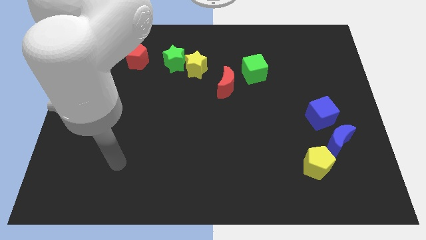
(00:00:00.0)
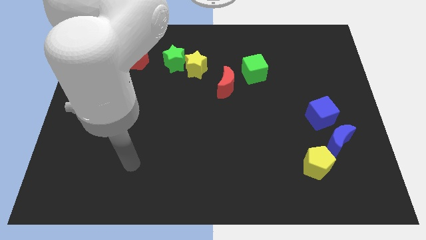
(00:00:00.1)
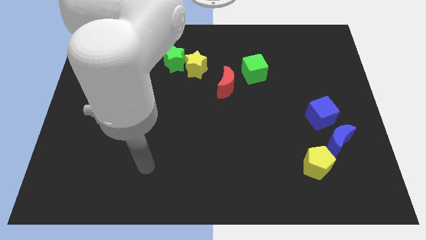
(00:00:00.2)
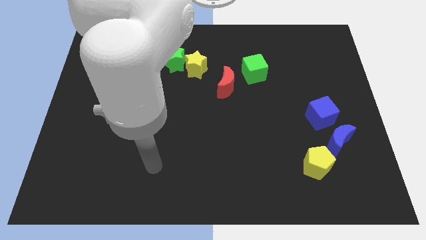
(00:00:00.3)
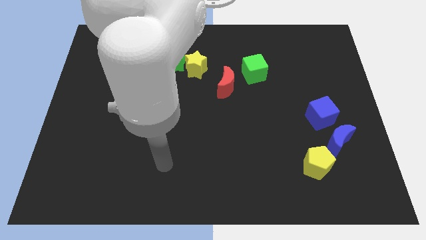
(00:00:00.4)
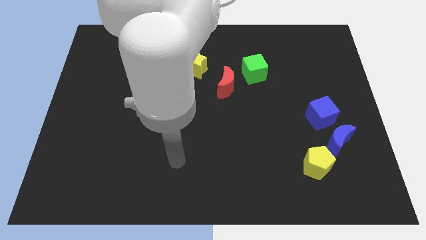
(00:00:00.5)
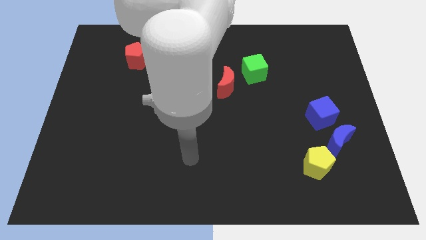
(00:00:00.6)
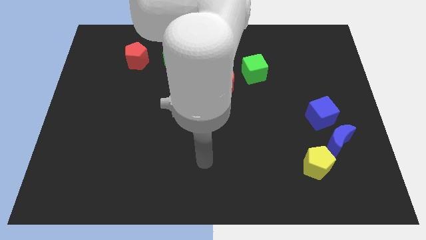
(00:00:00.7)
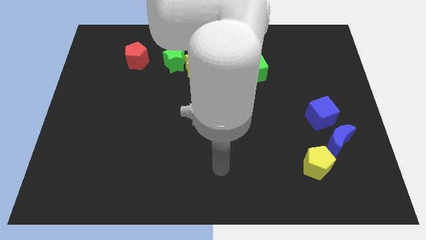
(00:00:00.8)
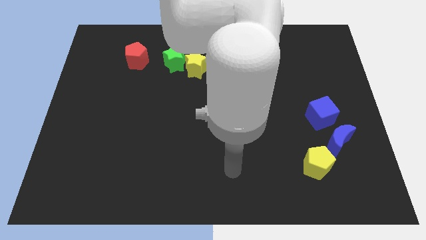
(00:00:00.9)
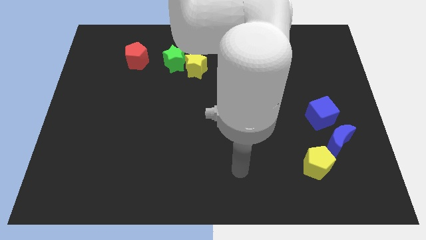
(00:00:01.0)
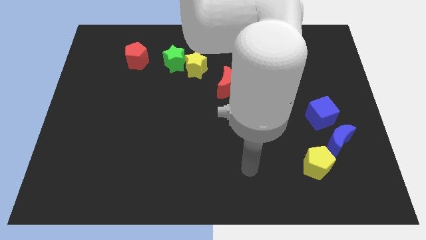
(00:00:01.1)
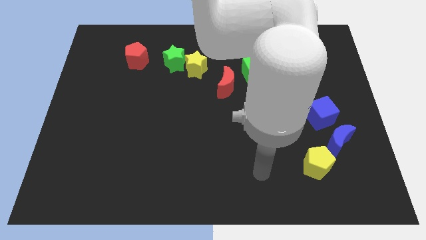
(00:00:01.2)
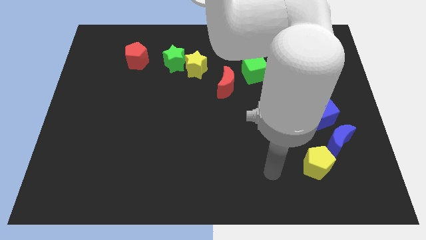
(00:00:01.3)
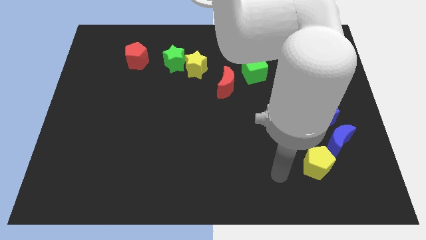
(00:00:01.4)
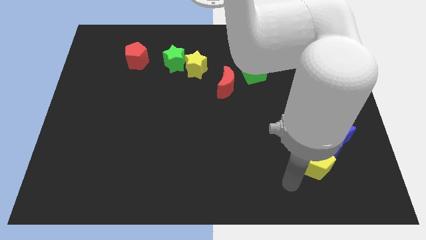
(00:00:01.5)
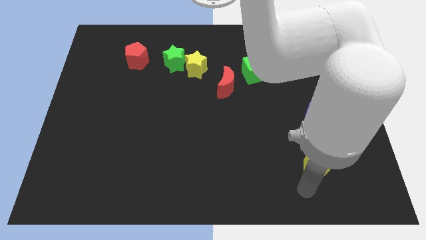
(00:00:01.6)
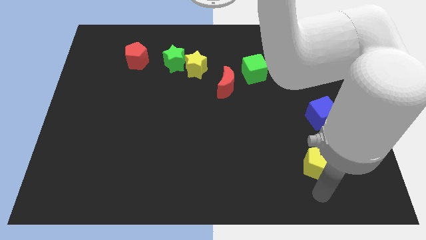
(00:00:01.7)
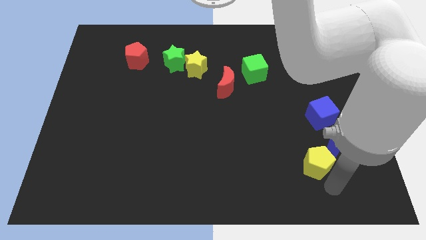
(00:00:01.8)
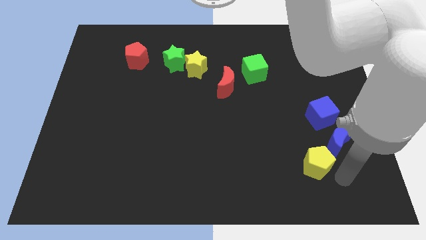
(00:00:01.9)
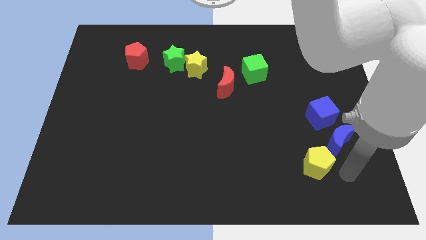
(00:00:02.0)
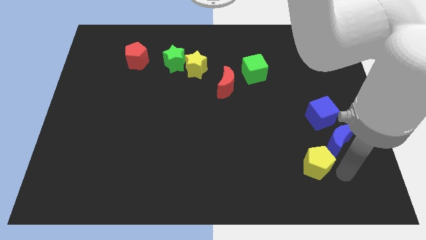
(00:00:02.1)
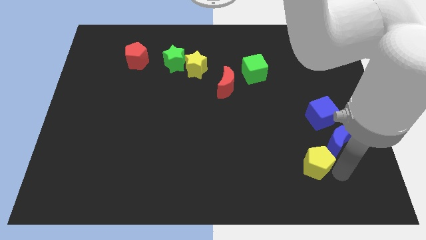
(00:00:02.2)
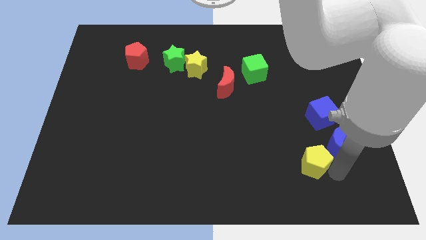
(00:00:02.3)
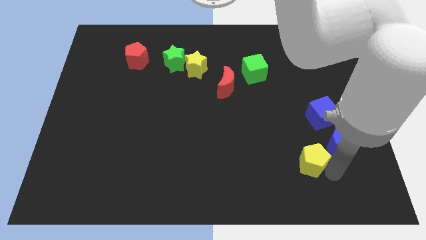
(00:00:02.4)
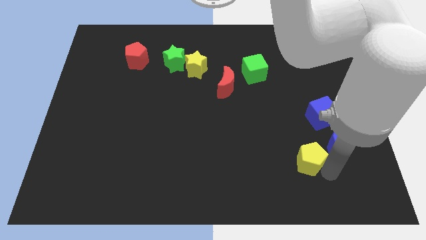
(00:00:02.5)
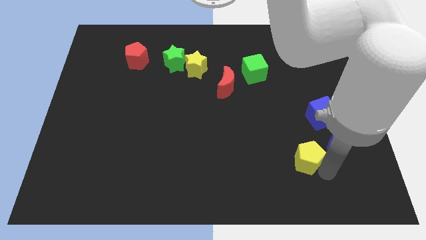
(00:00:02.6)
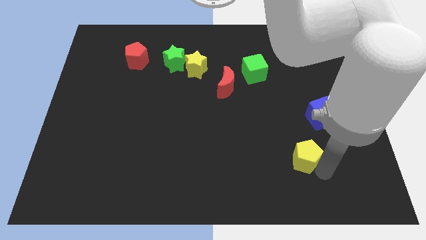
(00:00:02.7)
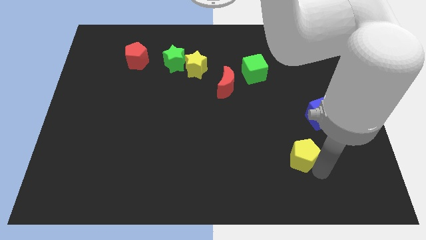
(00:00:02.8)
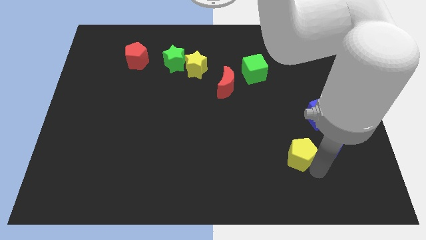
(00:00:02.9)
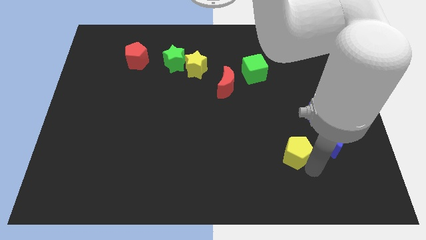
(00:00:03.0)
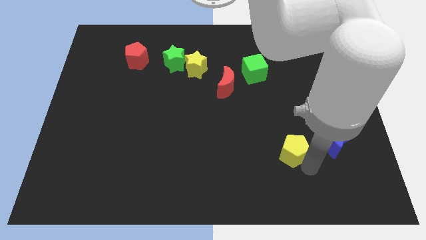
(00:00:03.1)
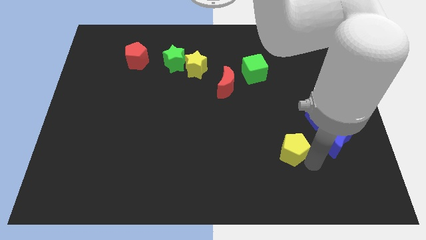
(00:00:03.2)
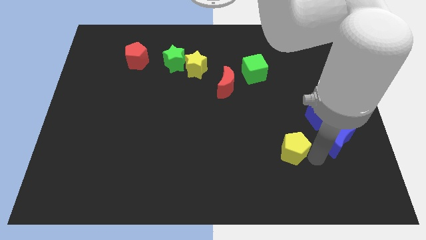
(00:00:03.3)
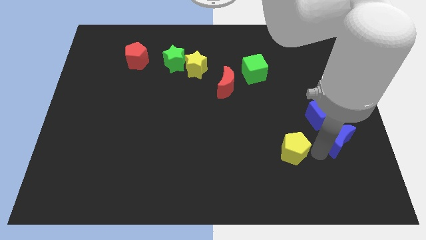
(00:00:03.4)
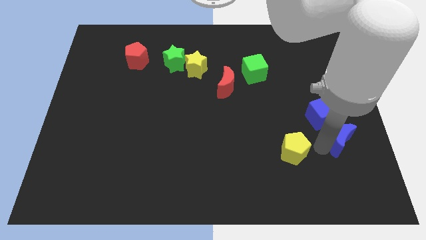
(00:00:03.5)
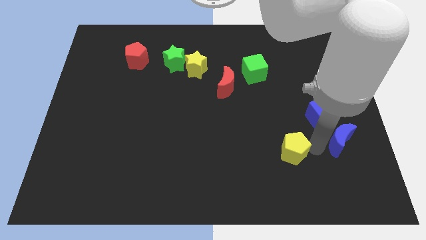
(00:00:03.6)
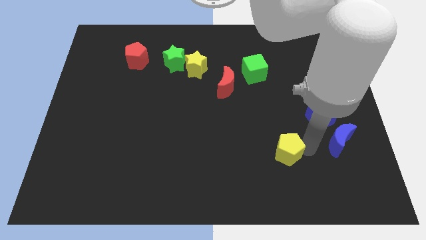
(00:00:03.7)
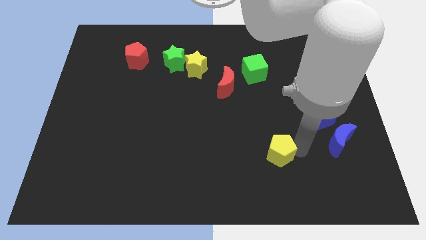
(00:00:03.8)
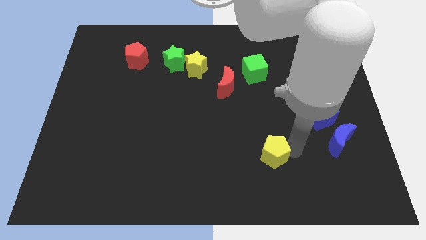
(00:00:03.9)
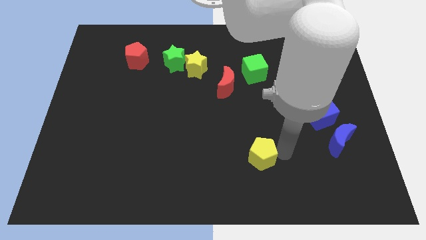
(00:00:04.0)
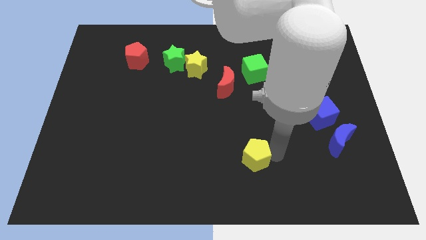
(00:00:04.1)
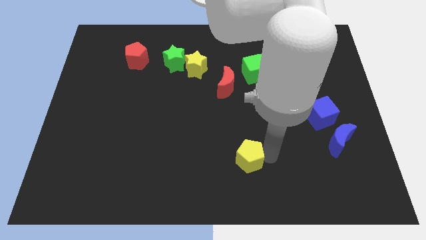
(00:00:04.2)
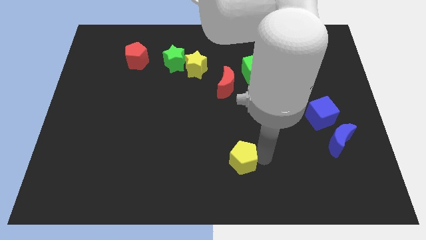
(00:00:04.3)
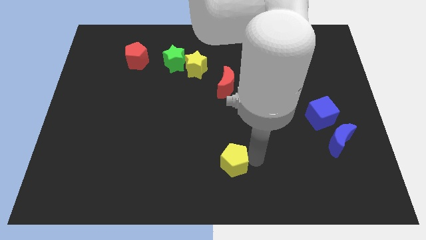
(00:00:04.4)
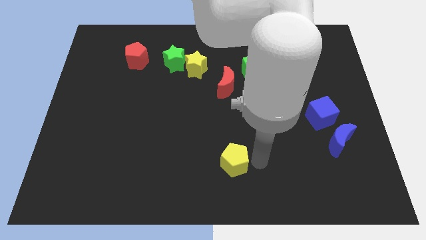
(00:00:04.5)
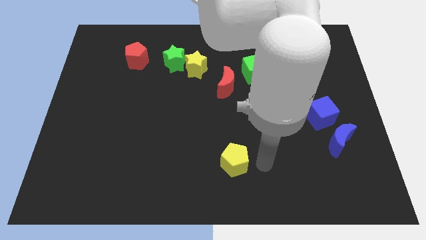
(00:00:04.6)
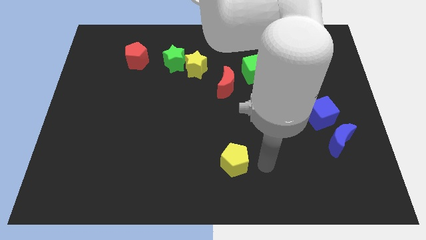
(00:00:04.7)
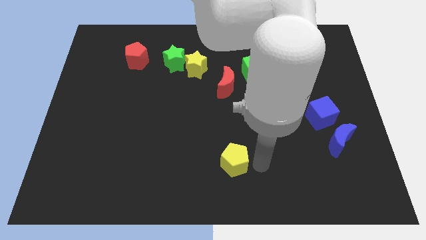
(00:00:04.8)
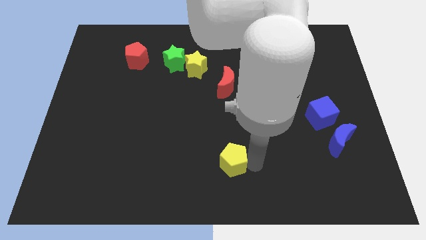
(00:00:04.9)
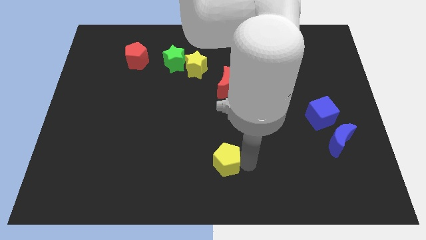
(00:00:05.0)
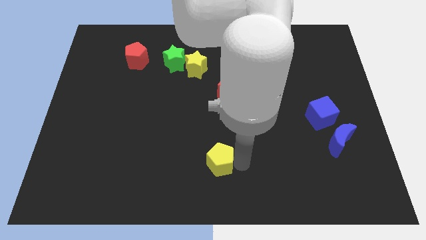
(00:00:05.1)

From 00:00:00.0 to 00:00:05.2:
slide the yellow pentagon to the left

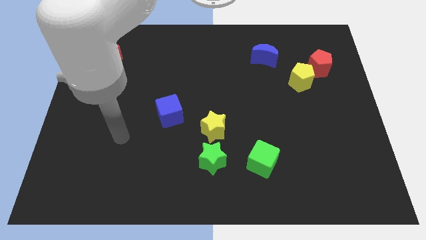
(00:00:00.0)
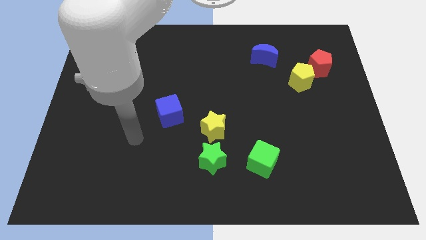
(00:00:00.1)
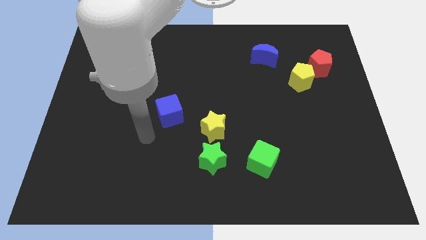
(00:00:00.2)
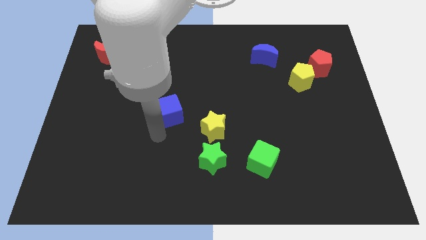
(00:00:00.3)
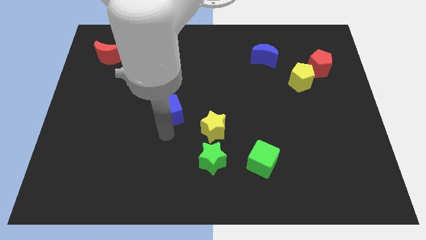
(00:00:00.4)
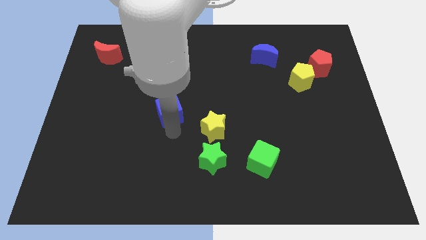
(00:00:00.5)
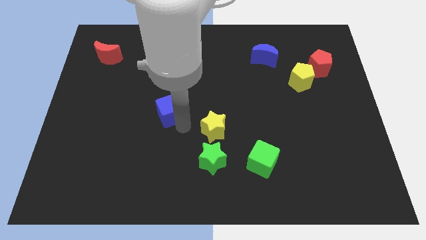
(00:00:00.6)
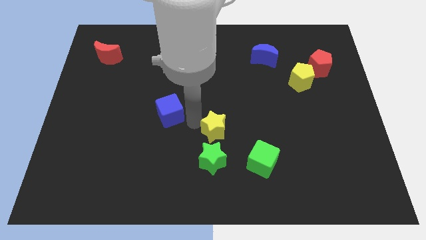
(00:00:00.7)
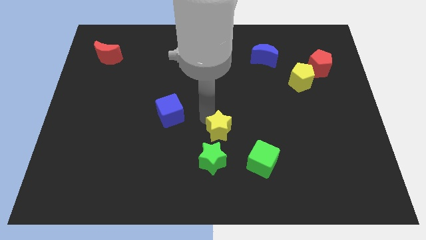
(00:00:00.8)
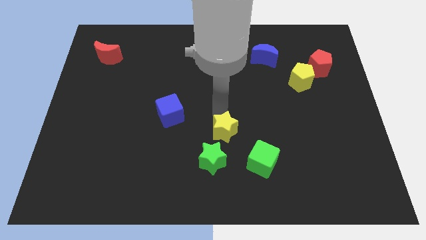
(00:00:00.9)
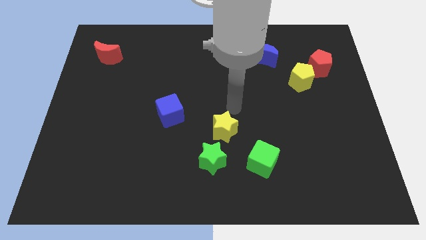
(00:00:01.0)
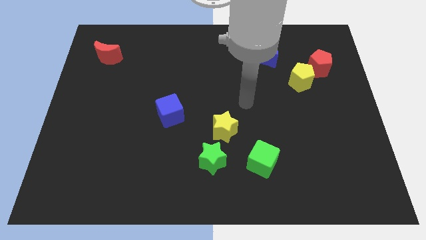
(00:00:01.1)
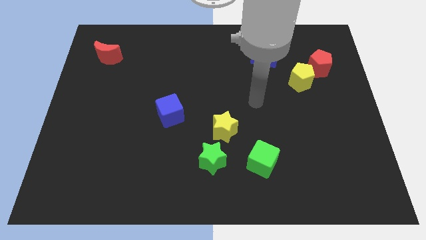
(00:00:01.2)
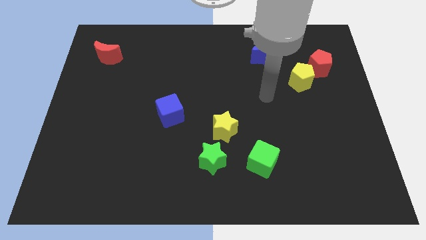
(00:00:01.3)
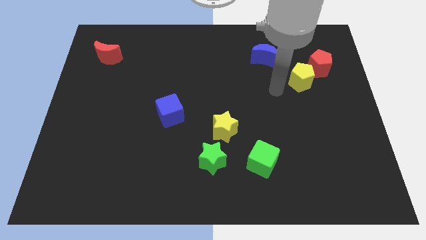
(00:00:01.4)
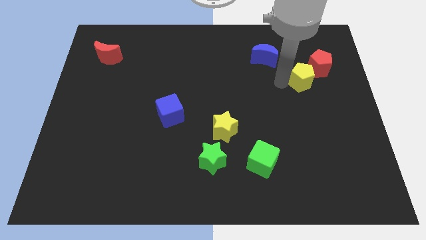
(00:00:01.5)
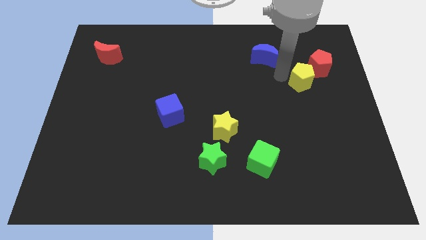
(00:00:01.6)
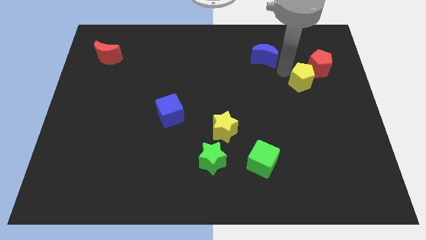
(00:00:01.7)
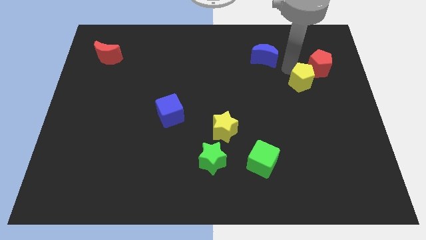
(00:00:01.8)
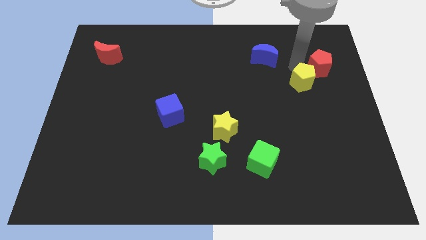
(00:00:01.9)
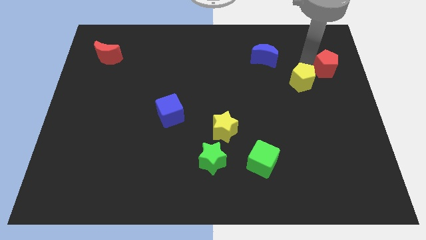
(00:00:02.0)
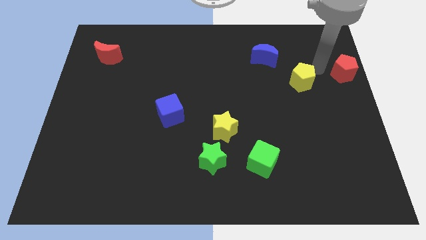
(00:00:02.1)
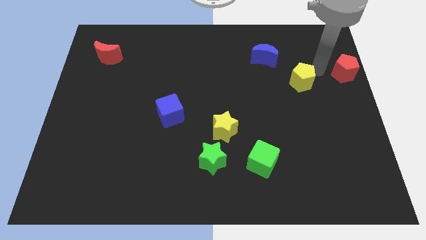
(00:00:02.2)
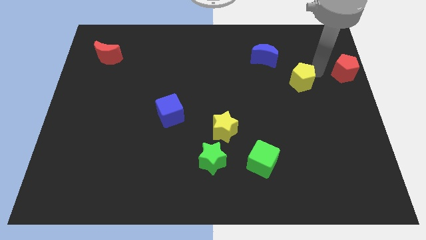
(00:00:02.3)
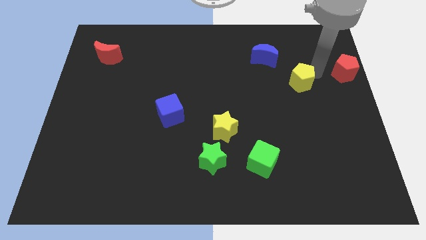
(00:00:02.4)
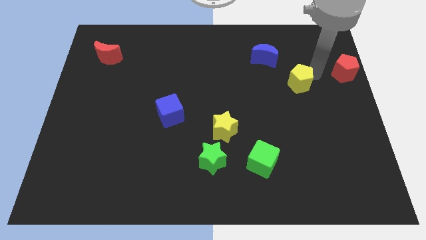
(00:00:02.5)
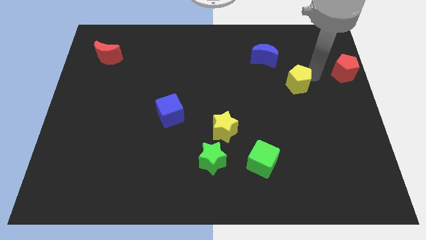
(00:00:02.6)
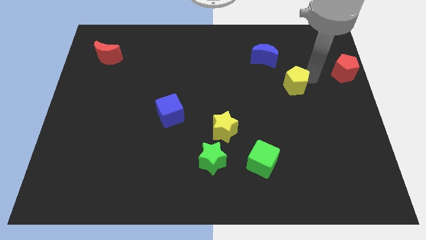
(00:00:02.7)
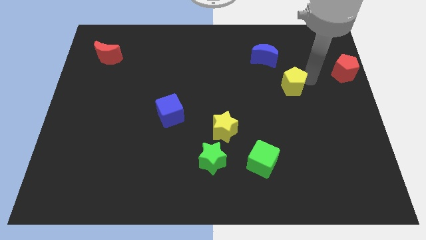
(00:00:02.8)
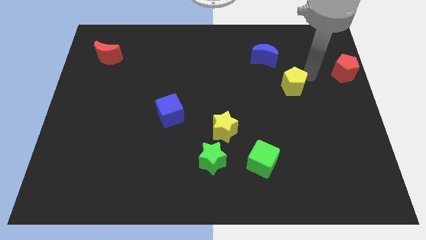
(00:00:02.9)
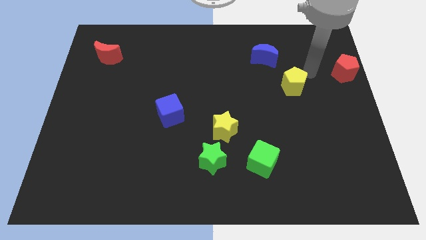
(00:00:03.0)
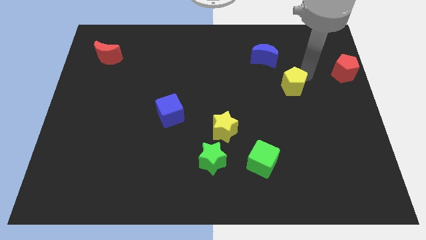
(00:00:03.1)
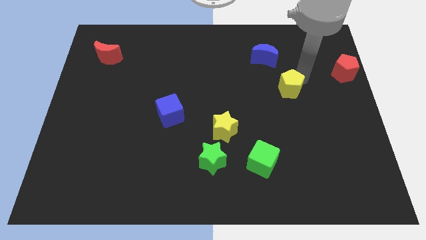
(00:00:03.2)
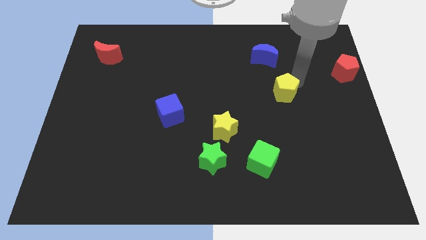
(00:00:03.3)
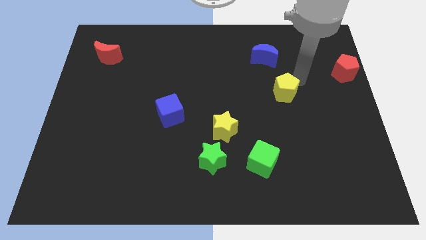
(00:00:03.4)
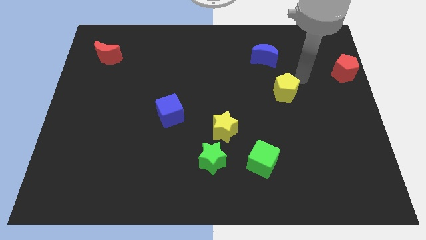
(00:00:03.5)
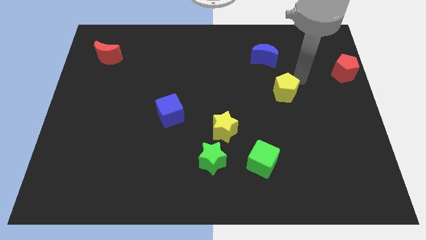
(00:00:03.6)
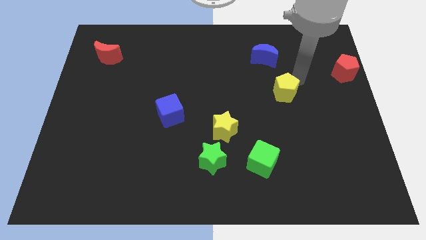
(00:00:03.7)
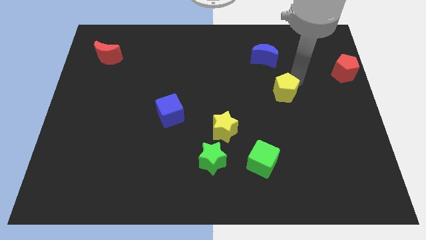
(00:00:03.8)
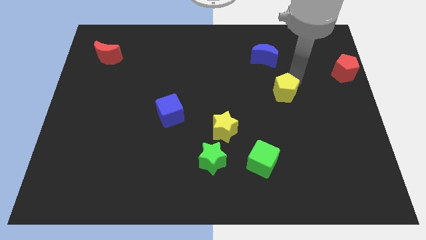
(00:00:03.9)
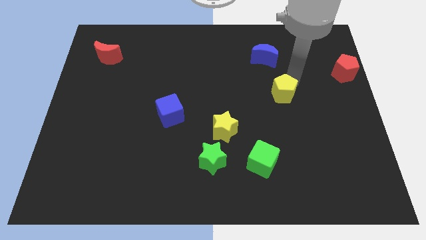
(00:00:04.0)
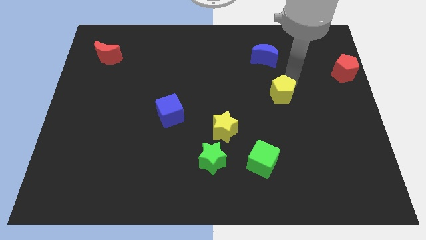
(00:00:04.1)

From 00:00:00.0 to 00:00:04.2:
slightly slide the yellow pentagon downwards and then left
